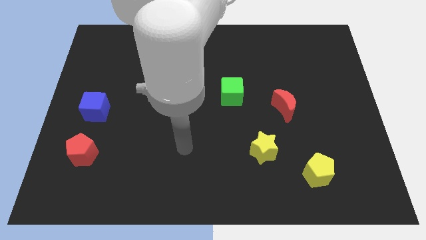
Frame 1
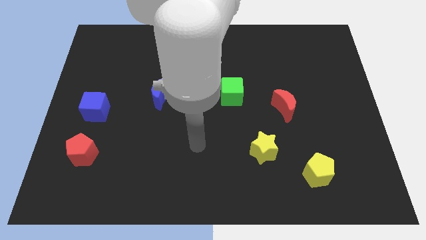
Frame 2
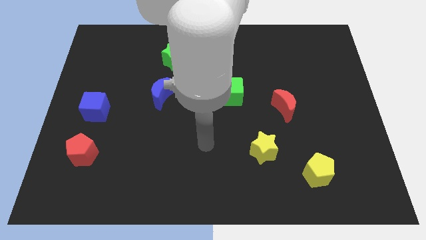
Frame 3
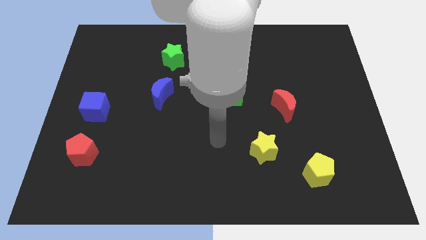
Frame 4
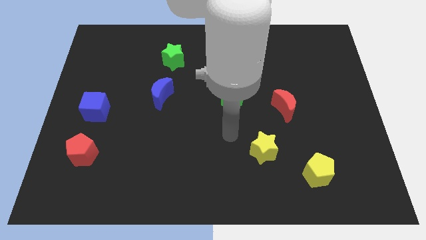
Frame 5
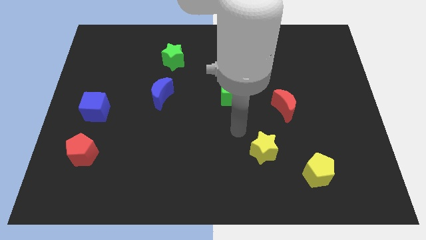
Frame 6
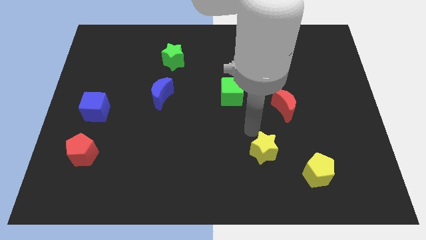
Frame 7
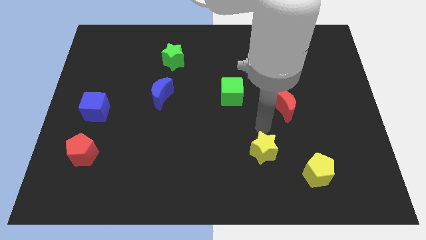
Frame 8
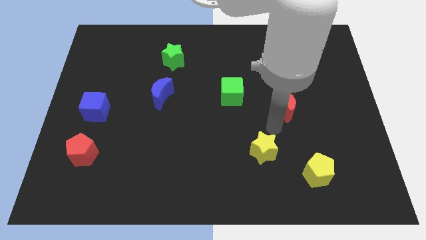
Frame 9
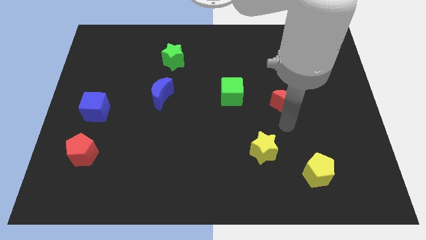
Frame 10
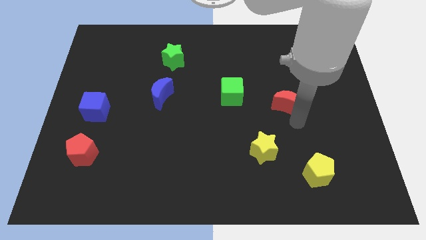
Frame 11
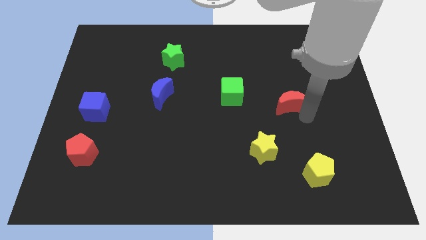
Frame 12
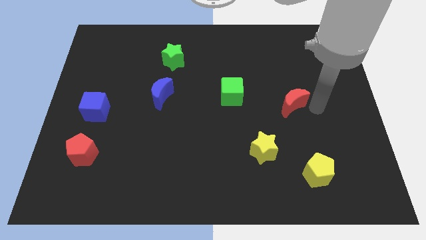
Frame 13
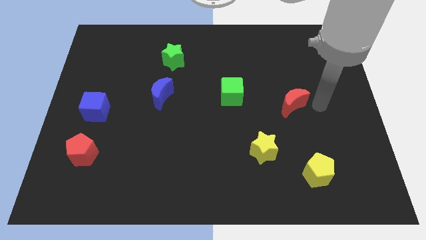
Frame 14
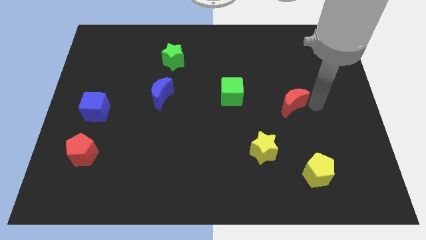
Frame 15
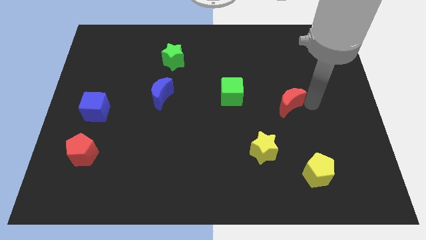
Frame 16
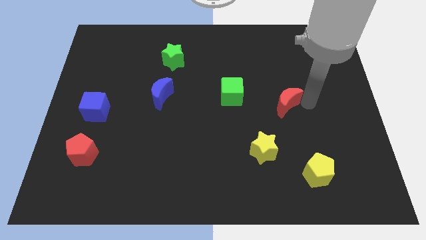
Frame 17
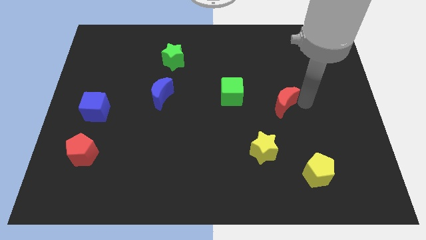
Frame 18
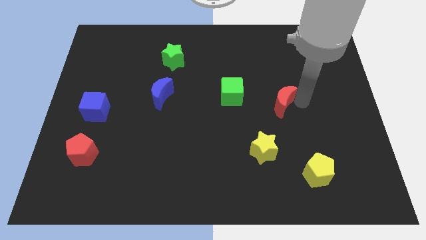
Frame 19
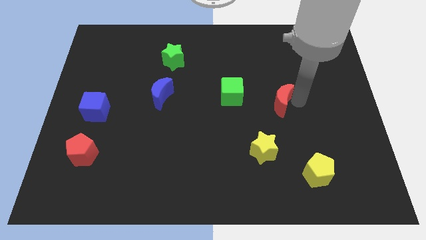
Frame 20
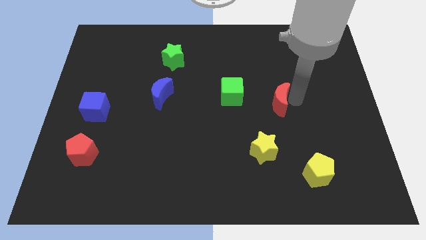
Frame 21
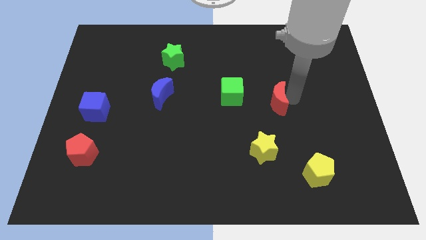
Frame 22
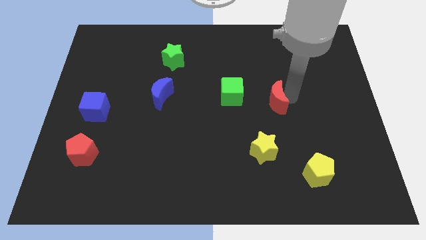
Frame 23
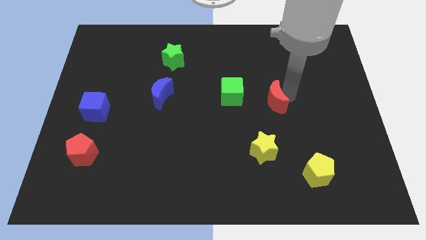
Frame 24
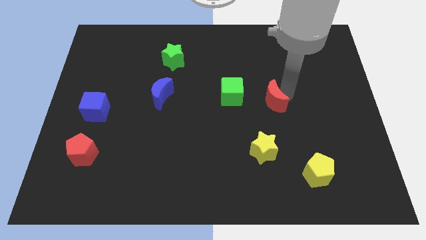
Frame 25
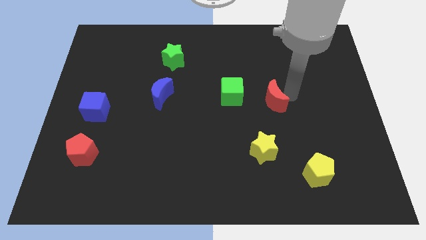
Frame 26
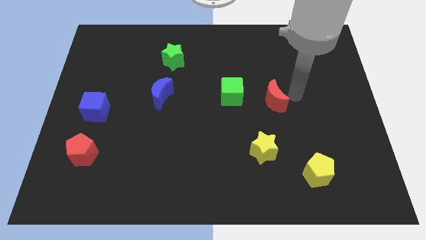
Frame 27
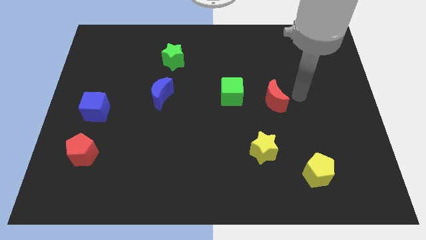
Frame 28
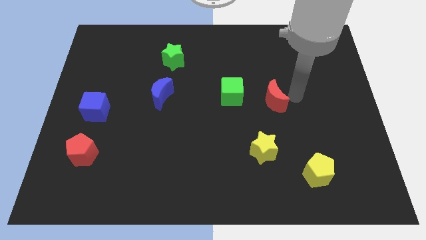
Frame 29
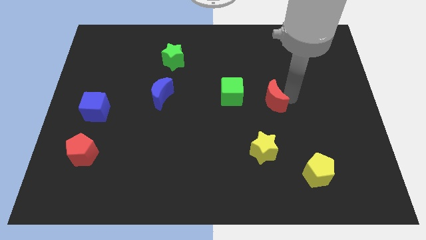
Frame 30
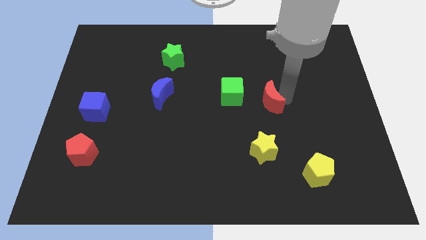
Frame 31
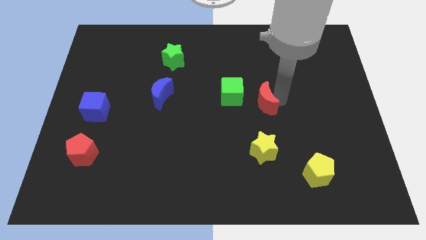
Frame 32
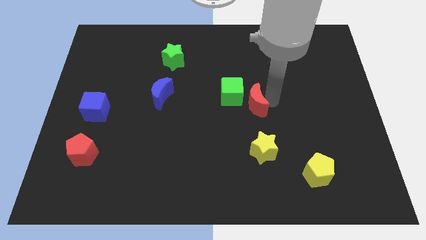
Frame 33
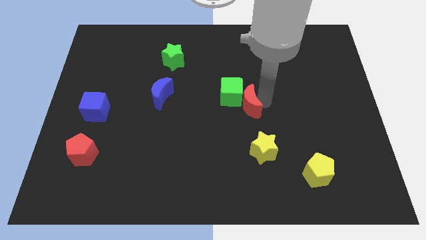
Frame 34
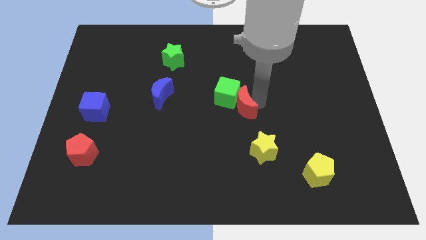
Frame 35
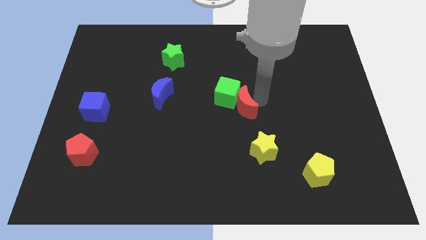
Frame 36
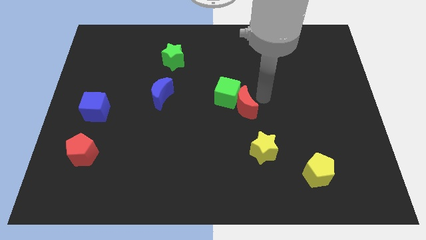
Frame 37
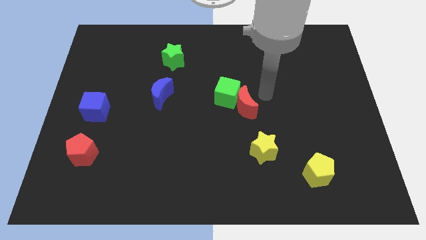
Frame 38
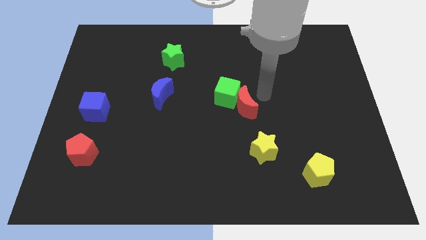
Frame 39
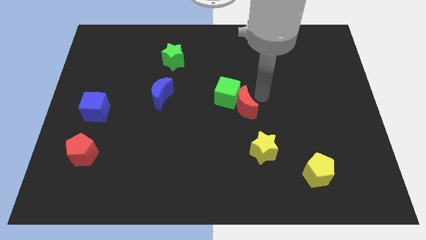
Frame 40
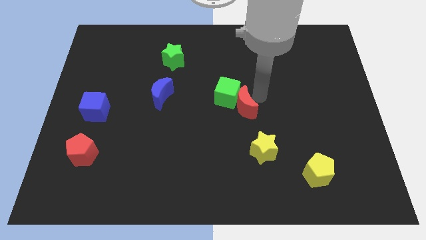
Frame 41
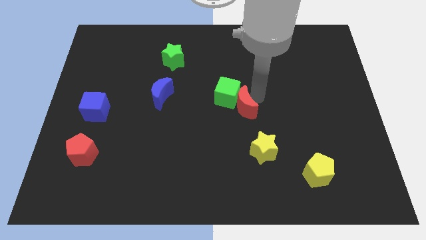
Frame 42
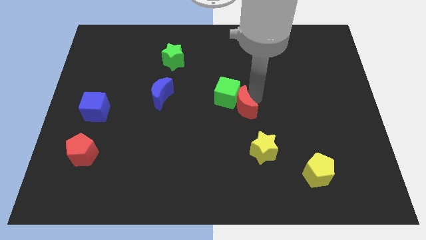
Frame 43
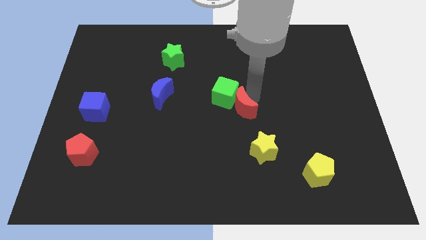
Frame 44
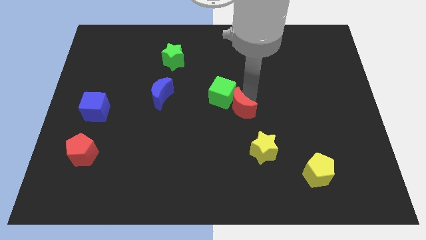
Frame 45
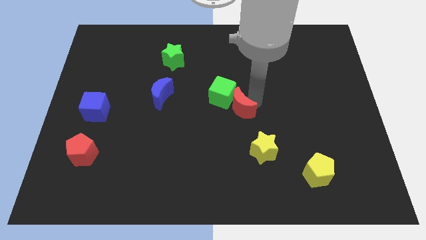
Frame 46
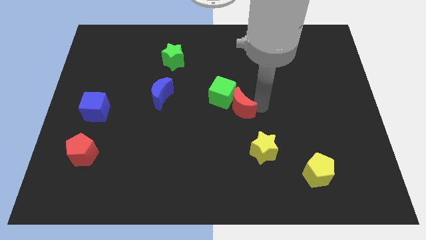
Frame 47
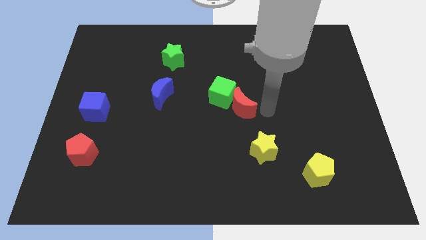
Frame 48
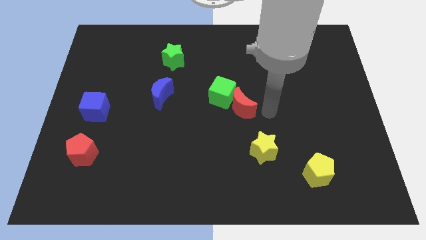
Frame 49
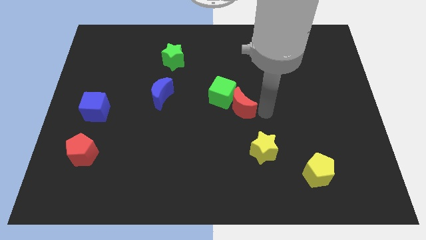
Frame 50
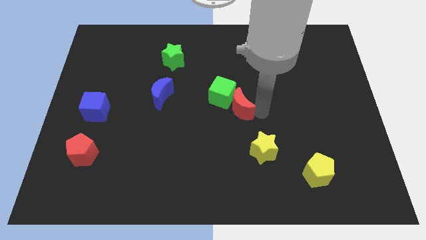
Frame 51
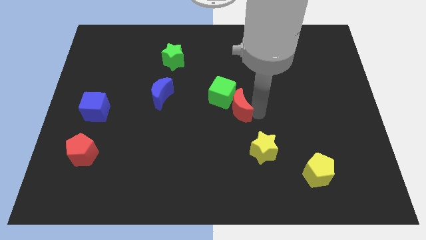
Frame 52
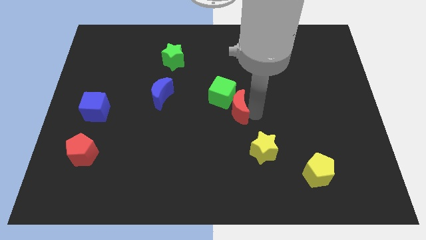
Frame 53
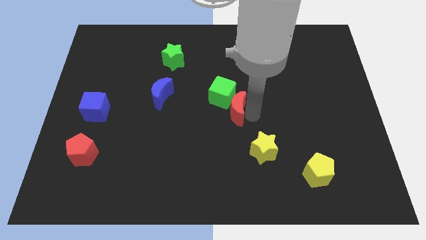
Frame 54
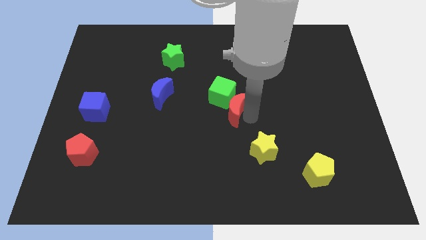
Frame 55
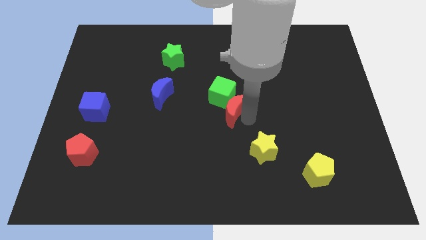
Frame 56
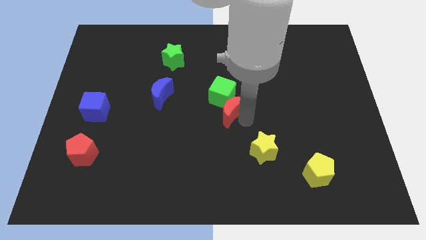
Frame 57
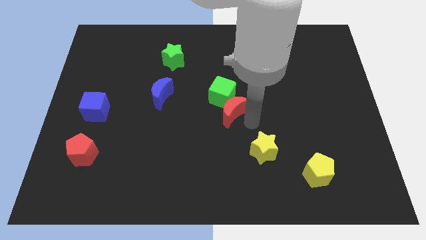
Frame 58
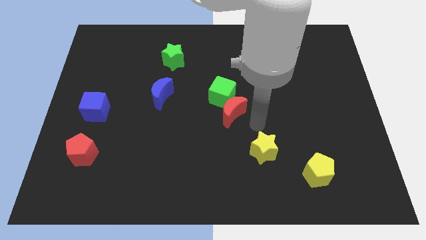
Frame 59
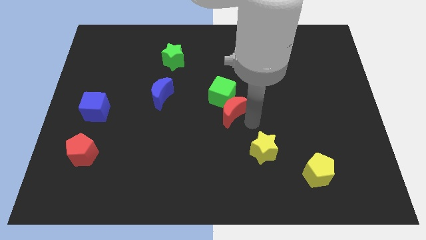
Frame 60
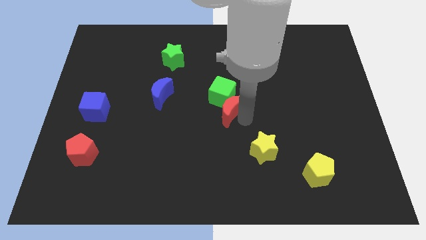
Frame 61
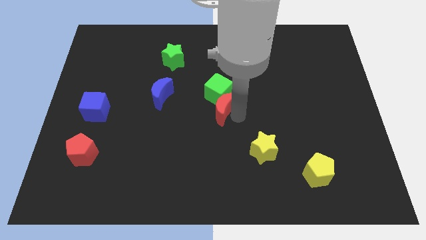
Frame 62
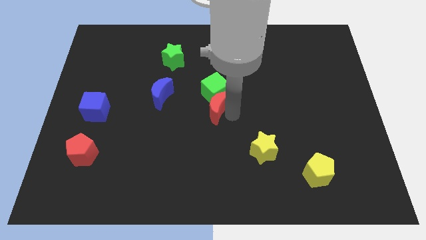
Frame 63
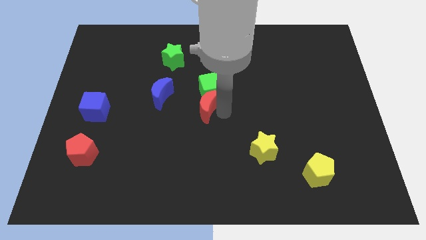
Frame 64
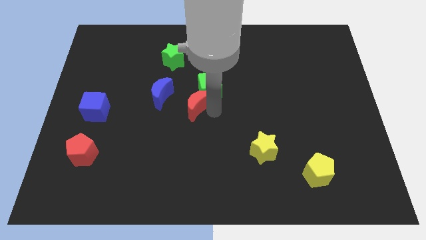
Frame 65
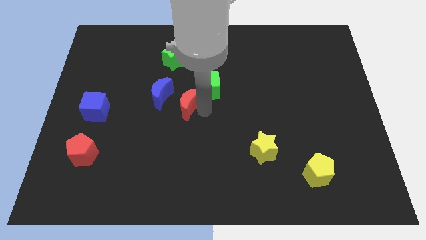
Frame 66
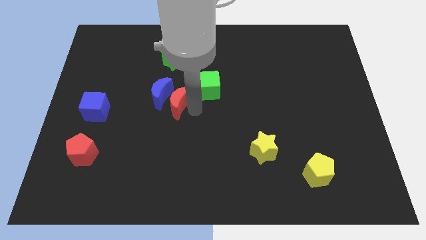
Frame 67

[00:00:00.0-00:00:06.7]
slide the red moon just left of the green cube

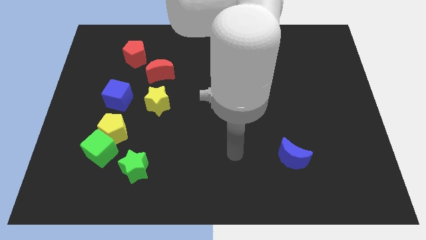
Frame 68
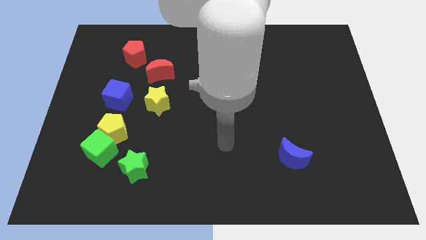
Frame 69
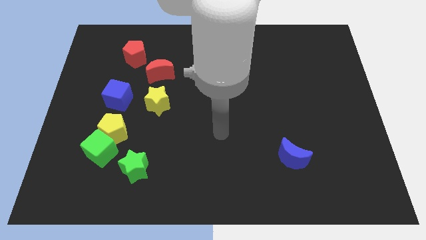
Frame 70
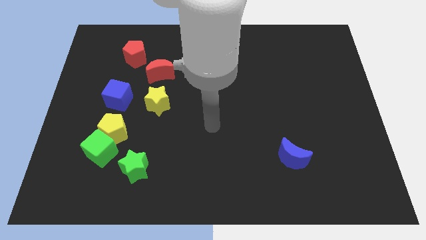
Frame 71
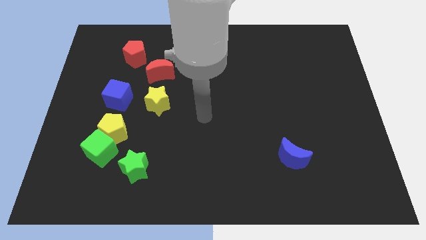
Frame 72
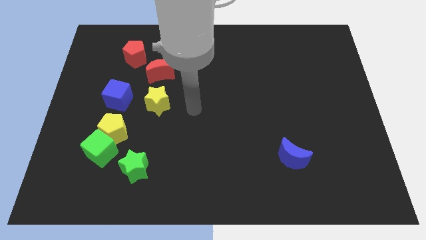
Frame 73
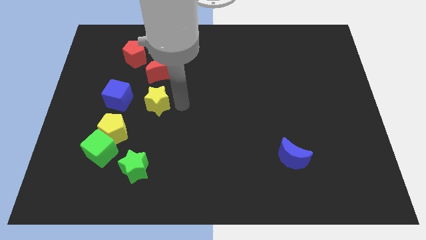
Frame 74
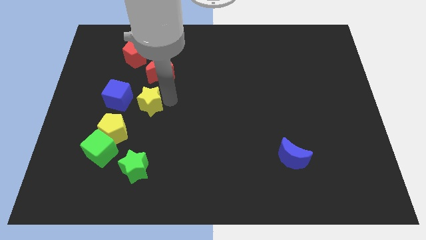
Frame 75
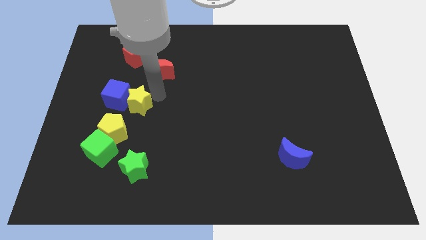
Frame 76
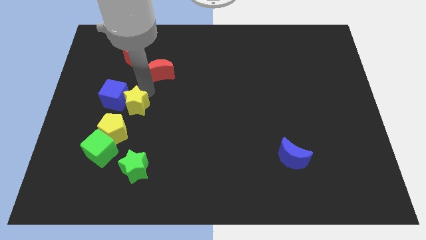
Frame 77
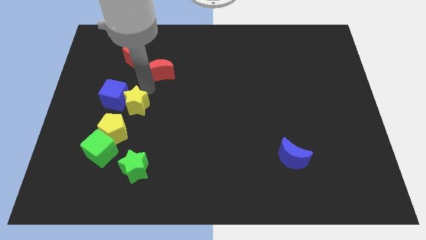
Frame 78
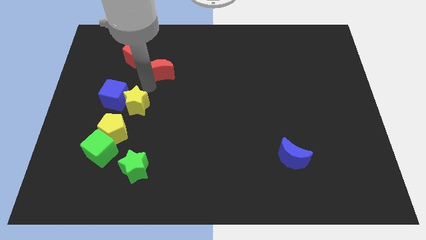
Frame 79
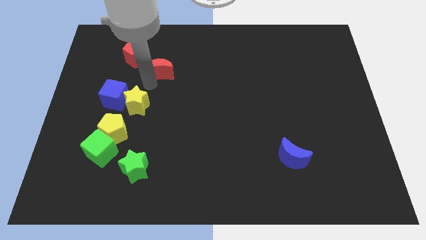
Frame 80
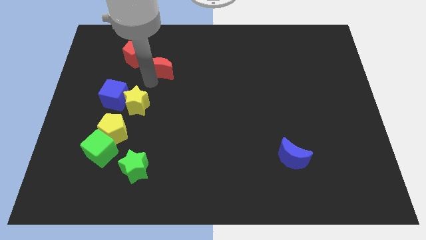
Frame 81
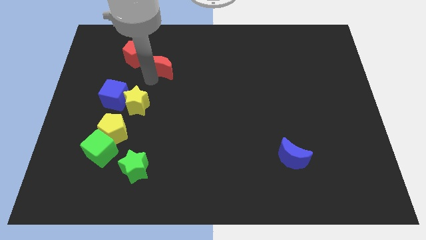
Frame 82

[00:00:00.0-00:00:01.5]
push the red moon right of the red pentagon
